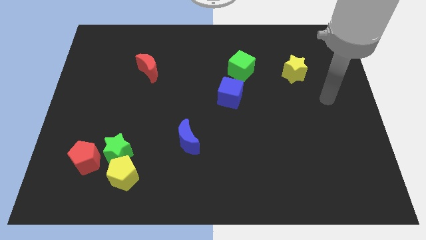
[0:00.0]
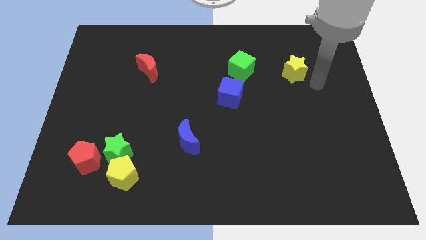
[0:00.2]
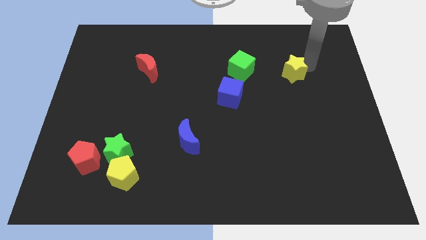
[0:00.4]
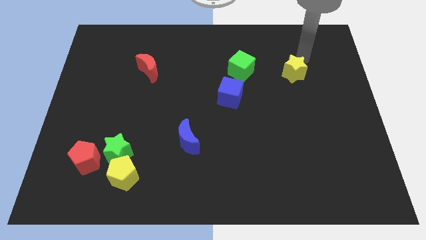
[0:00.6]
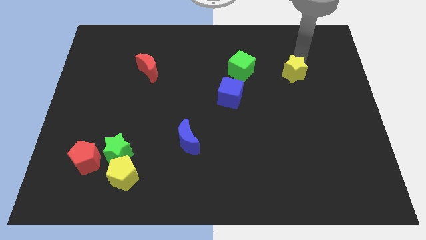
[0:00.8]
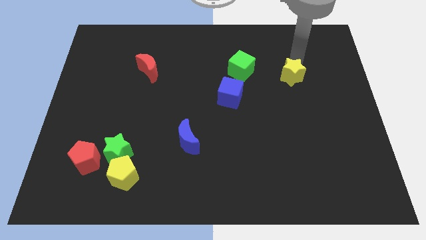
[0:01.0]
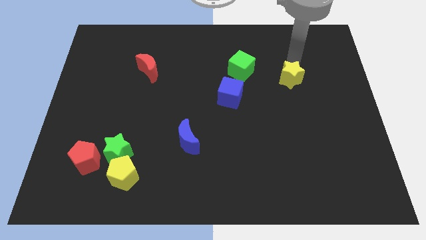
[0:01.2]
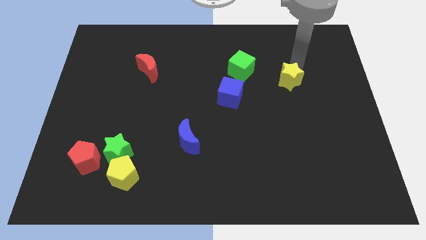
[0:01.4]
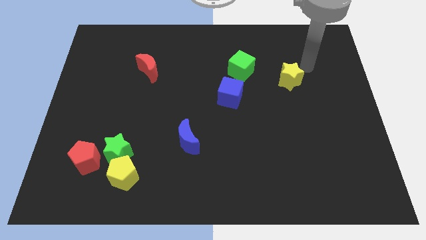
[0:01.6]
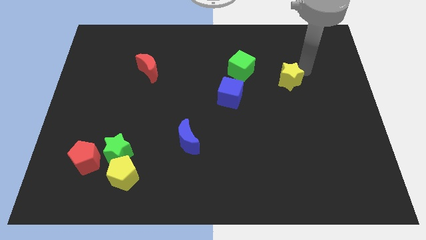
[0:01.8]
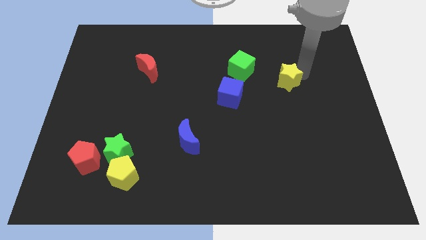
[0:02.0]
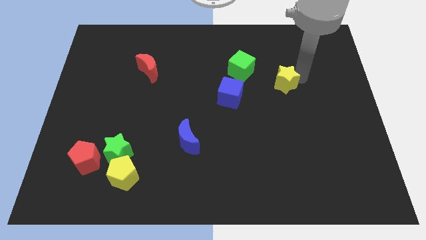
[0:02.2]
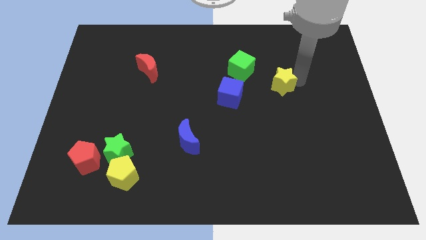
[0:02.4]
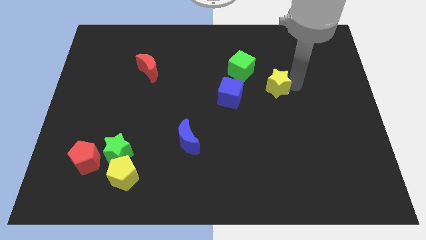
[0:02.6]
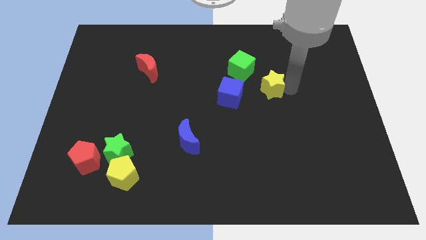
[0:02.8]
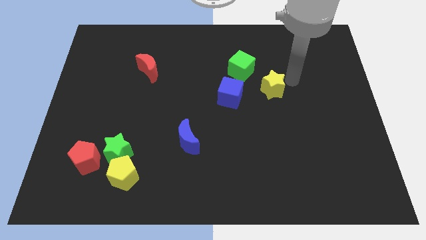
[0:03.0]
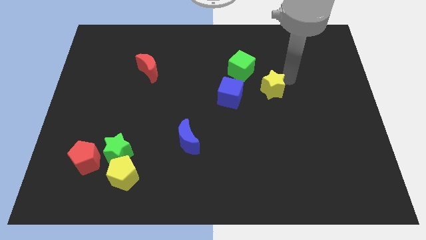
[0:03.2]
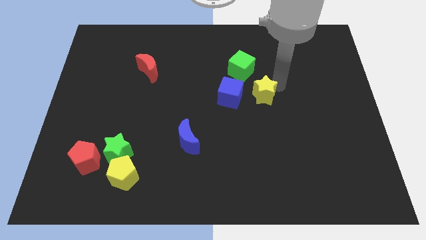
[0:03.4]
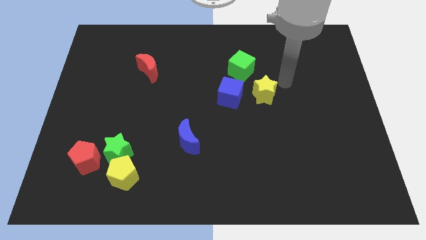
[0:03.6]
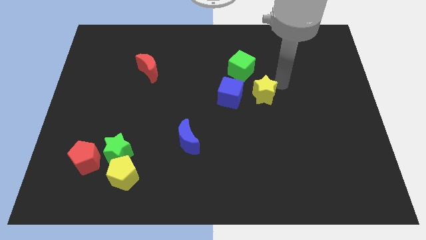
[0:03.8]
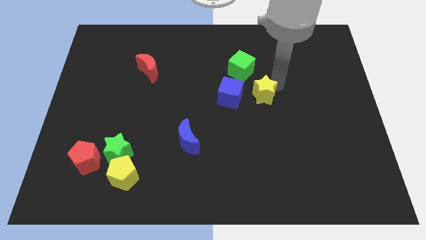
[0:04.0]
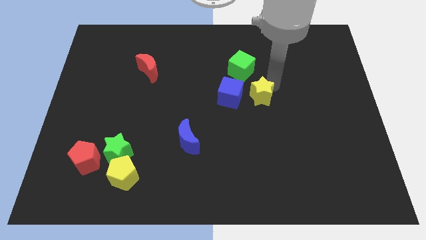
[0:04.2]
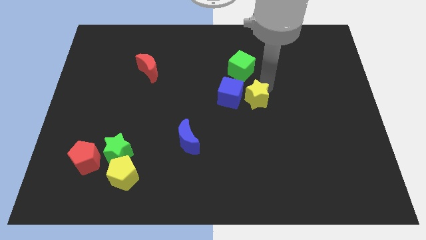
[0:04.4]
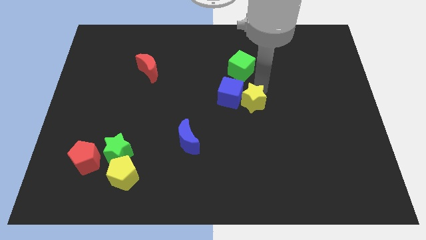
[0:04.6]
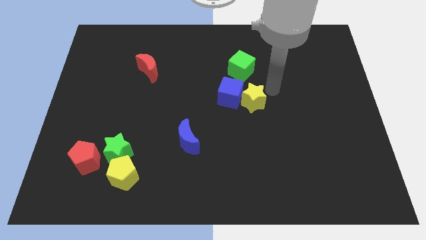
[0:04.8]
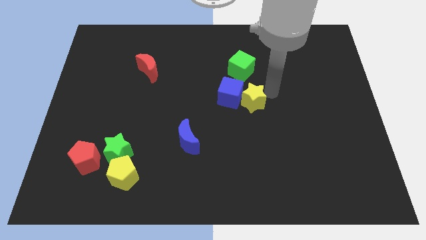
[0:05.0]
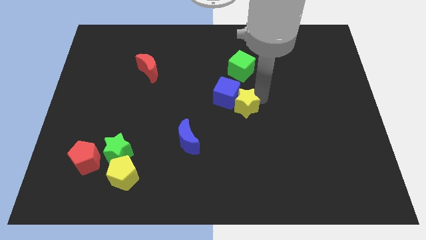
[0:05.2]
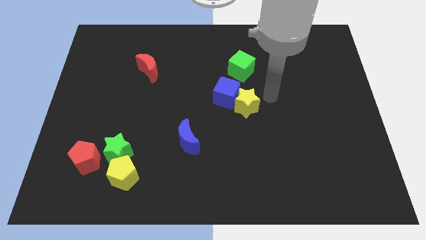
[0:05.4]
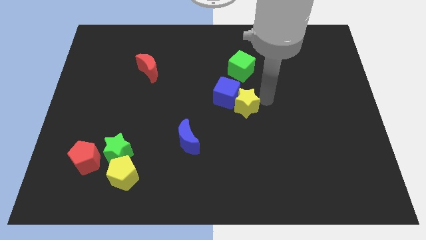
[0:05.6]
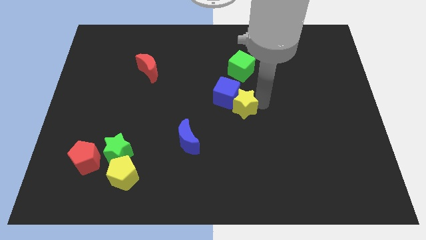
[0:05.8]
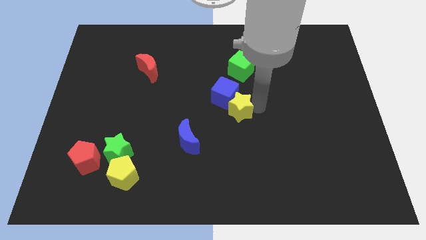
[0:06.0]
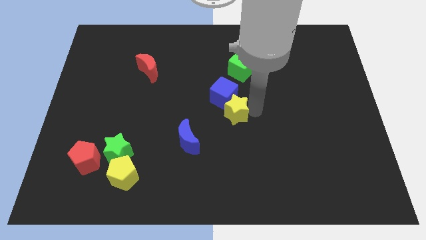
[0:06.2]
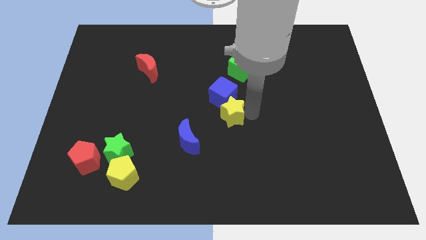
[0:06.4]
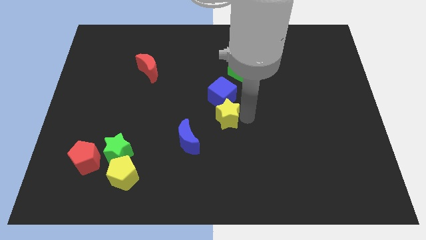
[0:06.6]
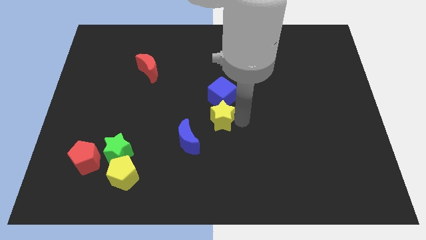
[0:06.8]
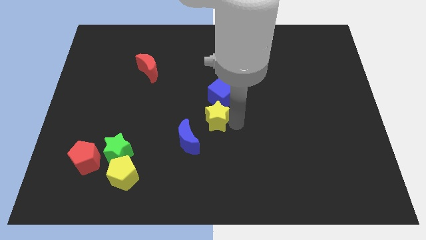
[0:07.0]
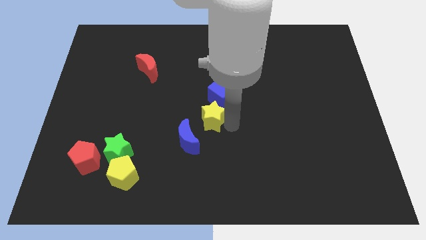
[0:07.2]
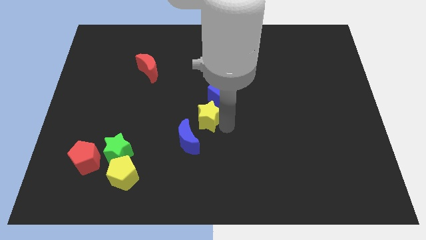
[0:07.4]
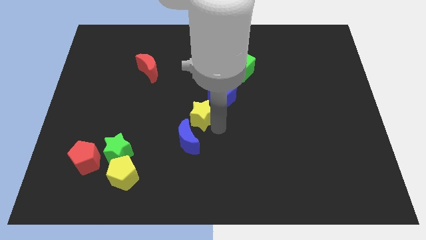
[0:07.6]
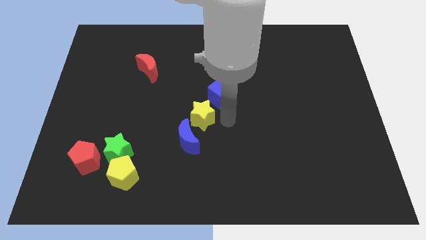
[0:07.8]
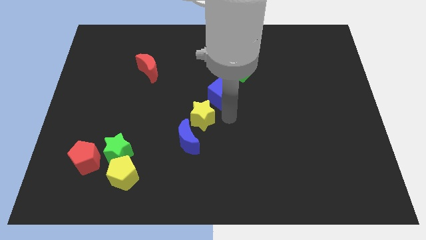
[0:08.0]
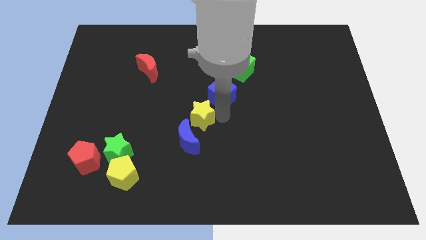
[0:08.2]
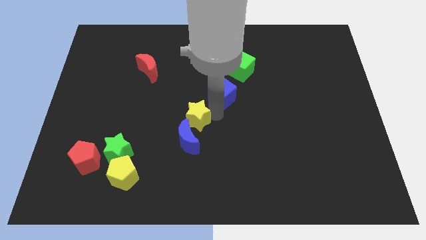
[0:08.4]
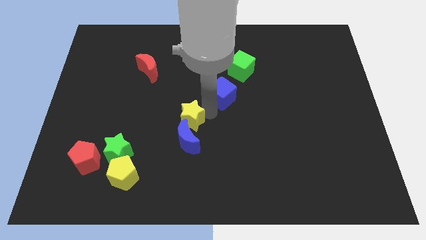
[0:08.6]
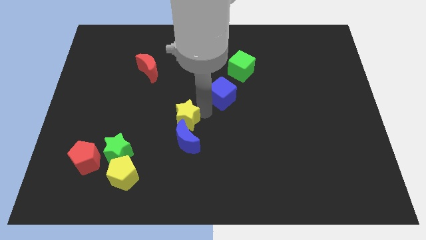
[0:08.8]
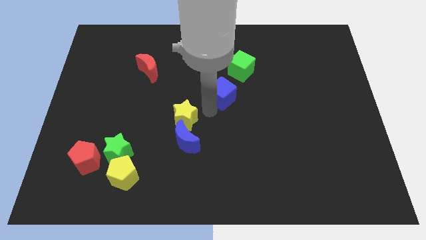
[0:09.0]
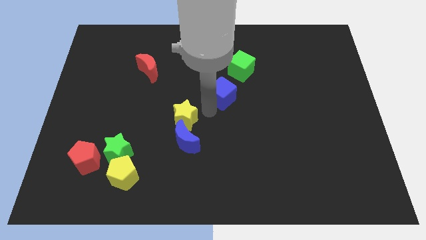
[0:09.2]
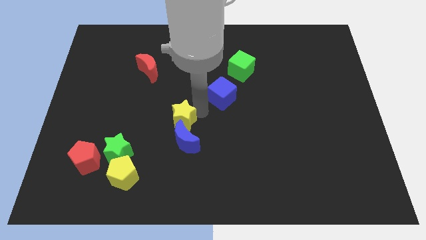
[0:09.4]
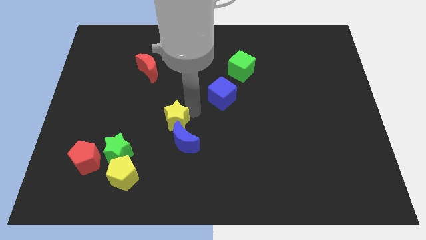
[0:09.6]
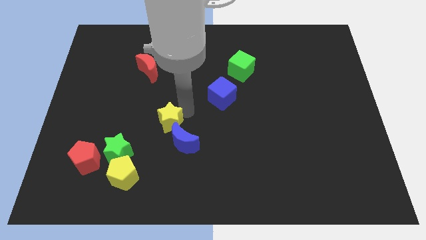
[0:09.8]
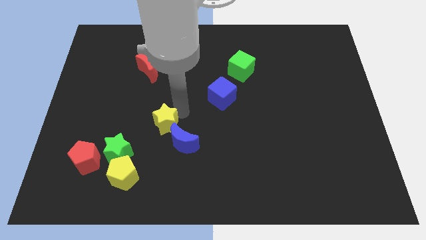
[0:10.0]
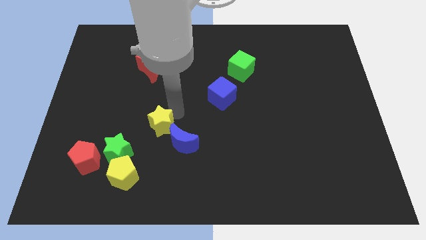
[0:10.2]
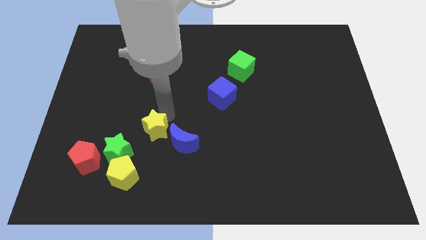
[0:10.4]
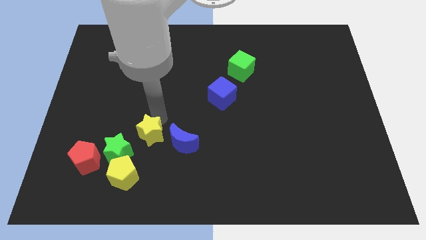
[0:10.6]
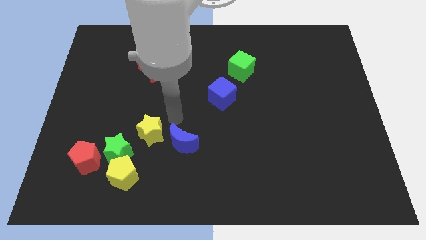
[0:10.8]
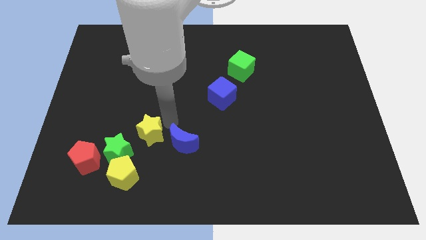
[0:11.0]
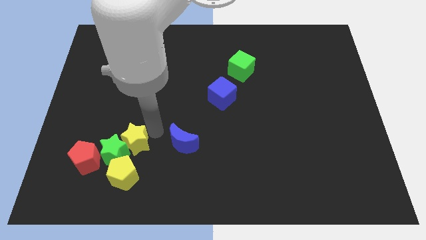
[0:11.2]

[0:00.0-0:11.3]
slide the yellow star towards the green star

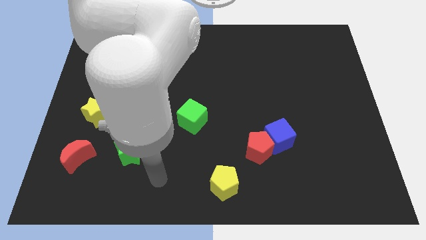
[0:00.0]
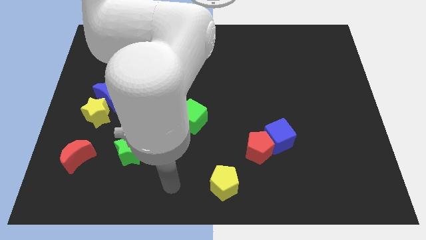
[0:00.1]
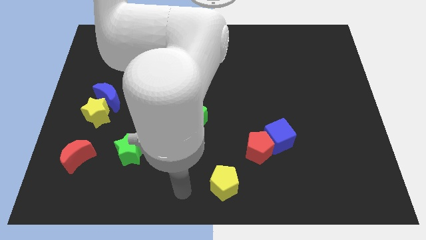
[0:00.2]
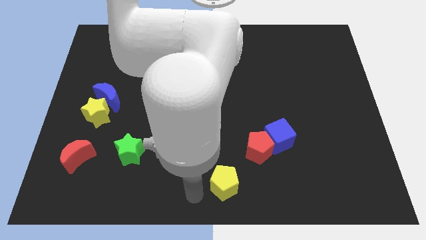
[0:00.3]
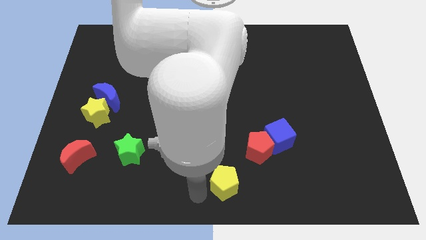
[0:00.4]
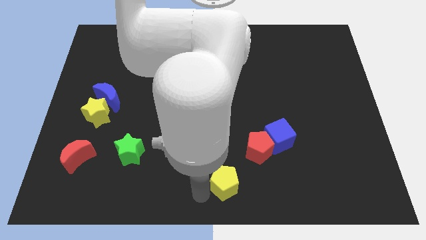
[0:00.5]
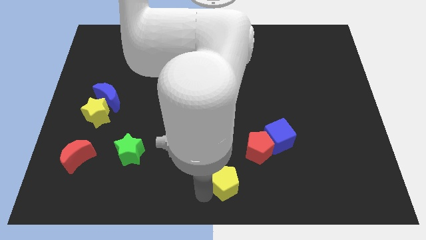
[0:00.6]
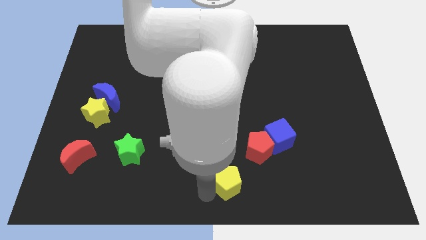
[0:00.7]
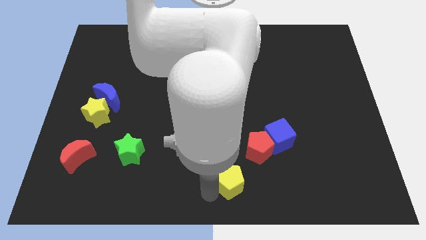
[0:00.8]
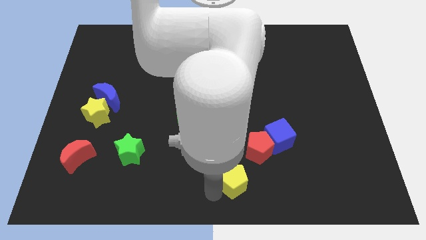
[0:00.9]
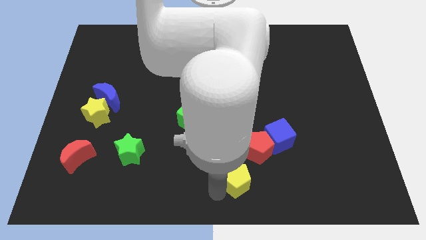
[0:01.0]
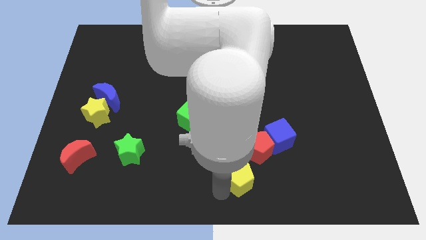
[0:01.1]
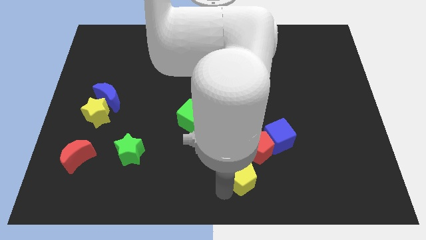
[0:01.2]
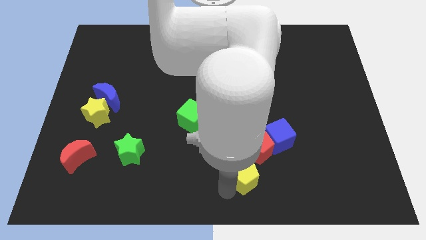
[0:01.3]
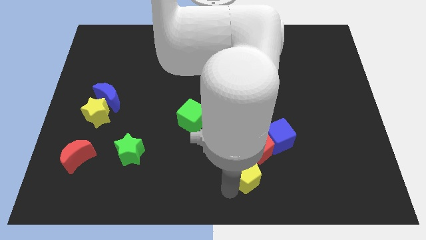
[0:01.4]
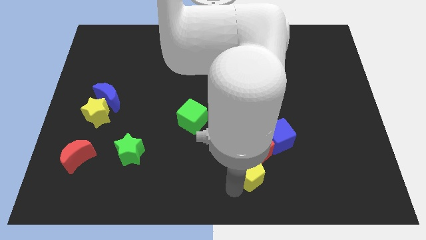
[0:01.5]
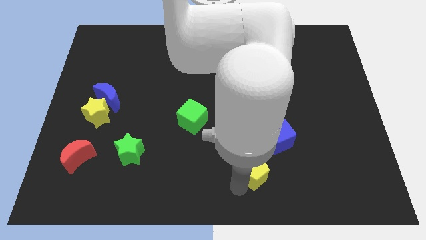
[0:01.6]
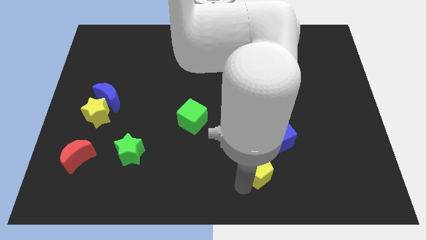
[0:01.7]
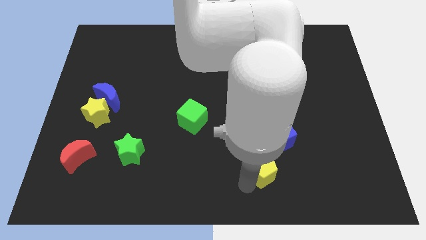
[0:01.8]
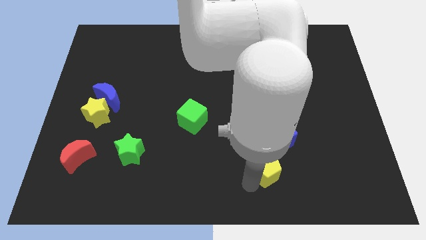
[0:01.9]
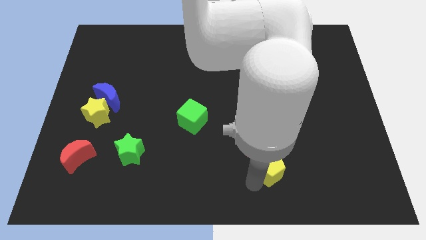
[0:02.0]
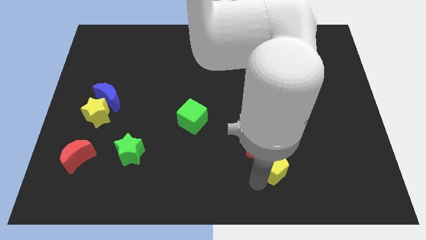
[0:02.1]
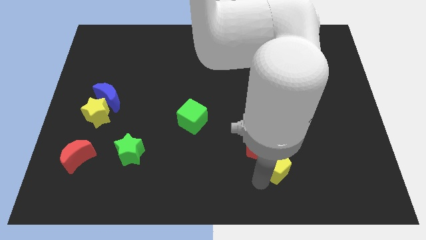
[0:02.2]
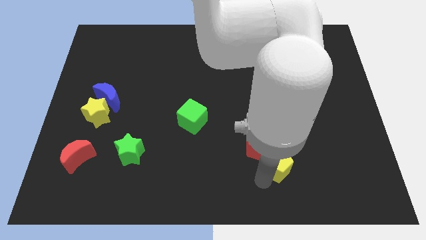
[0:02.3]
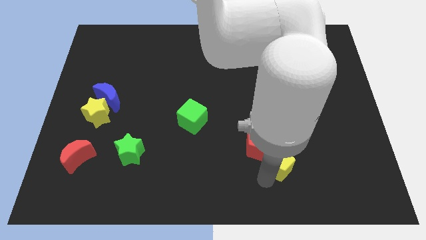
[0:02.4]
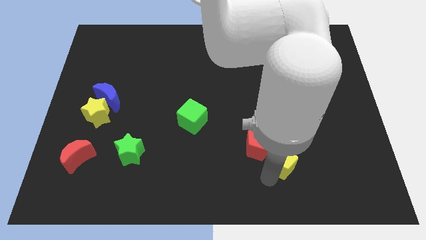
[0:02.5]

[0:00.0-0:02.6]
push the yellow pentagon to the blue cube
